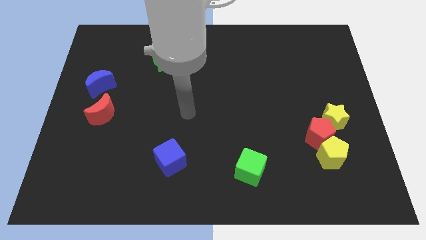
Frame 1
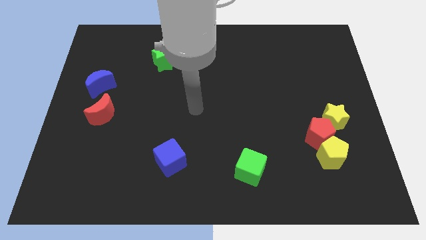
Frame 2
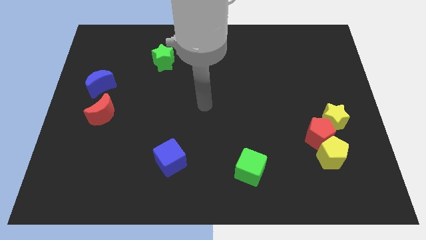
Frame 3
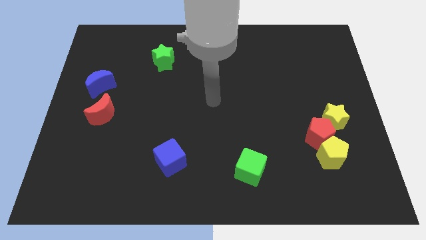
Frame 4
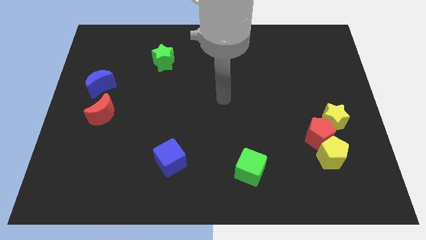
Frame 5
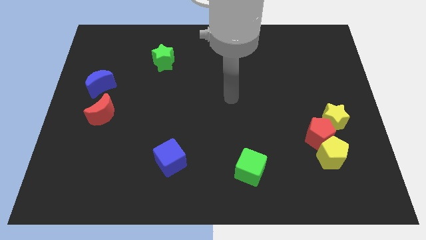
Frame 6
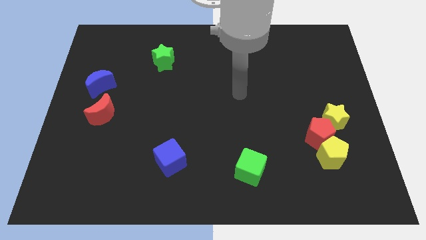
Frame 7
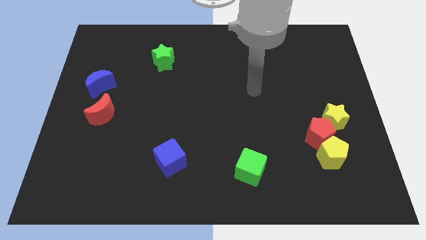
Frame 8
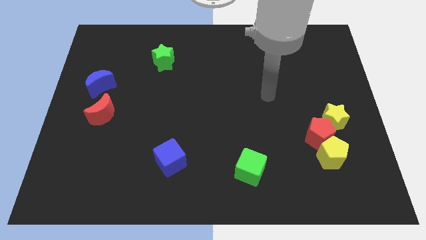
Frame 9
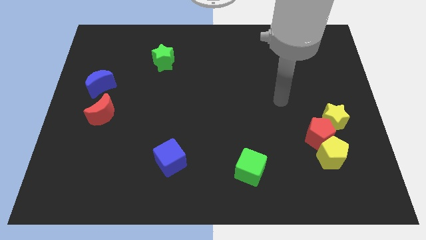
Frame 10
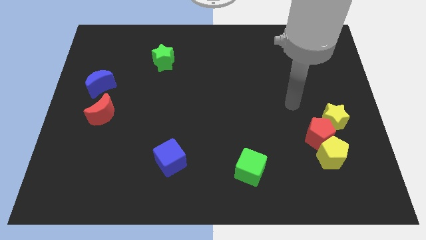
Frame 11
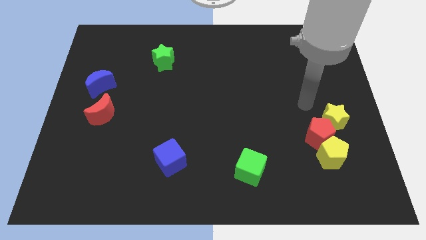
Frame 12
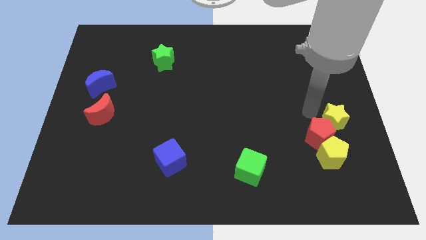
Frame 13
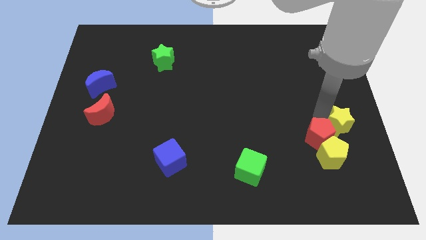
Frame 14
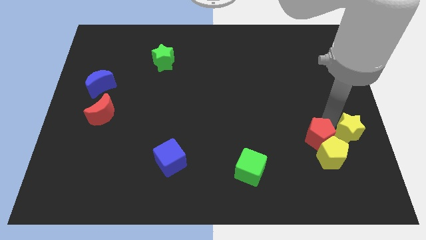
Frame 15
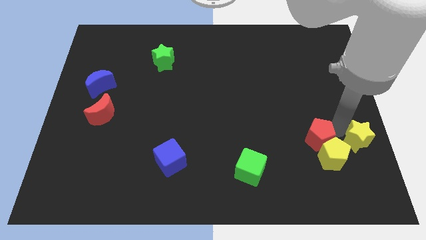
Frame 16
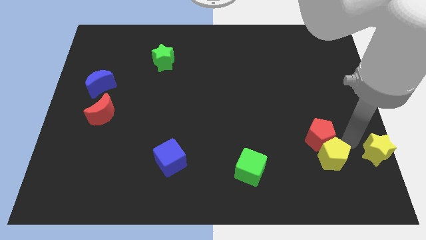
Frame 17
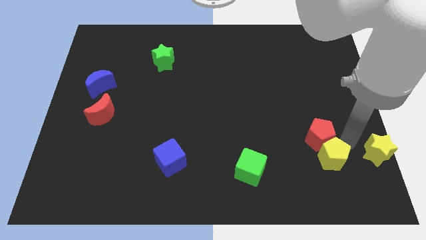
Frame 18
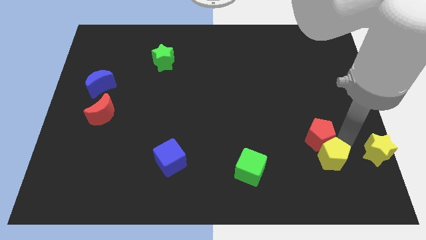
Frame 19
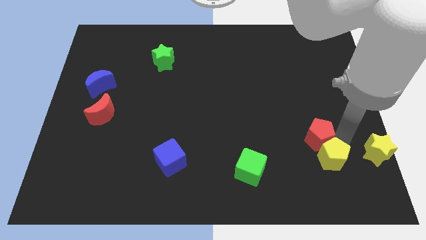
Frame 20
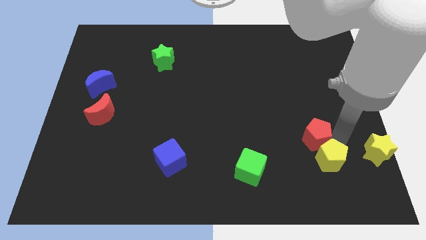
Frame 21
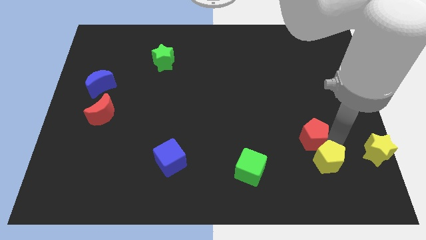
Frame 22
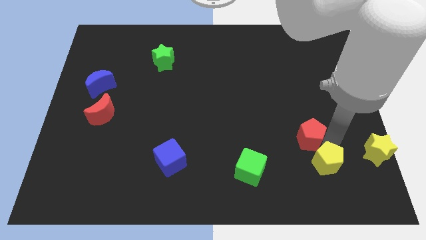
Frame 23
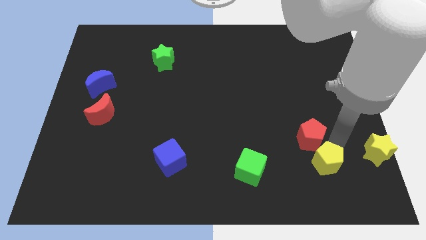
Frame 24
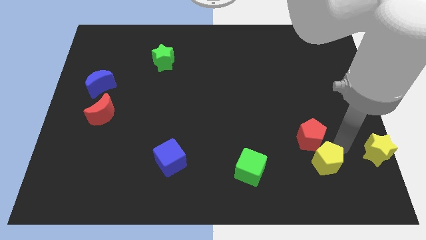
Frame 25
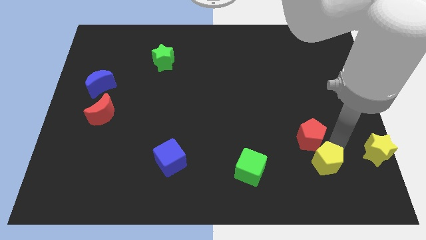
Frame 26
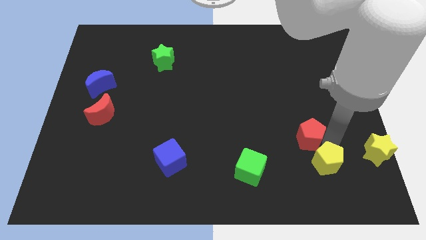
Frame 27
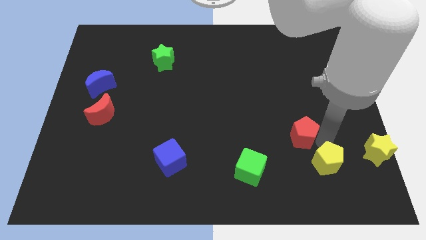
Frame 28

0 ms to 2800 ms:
move the red pentagon away from the yellow pentagon and yellow star

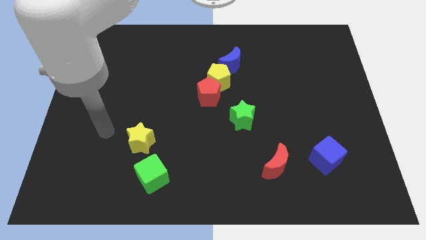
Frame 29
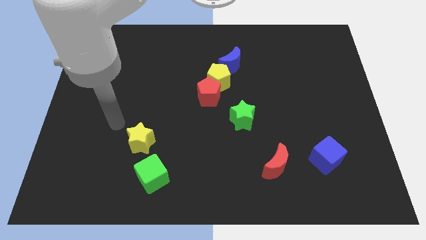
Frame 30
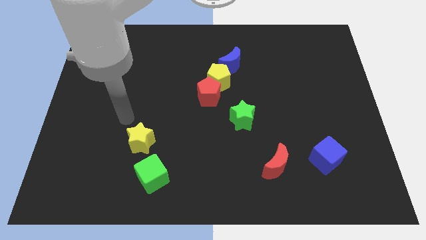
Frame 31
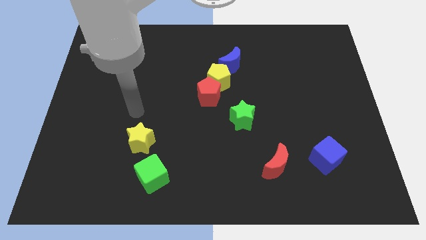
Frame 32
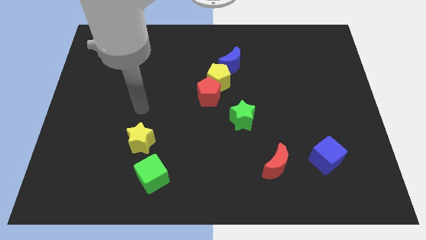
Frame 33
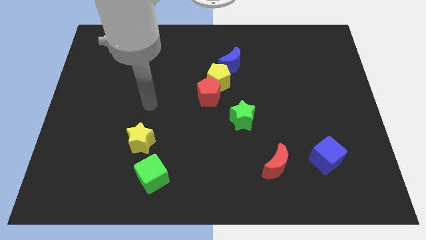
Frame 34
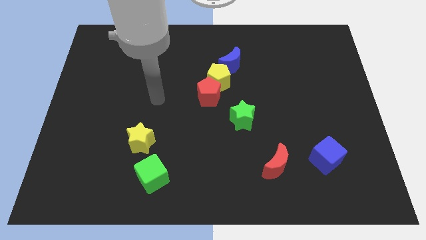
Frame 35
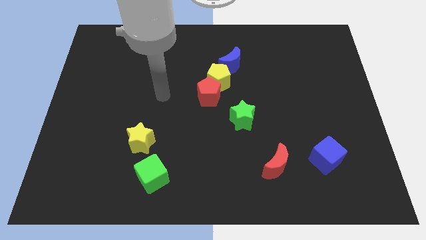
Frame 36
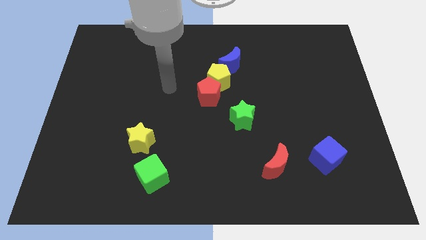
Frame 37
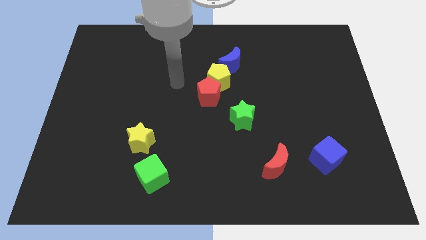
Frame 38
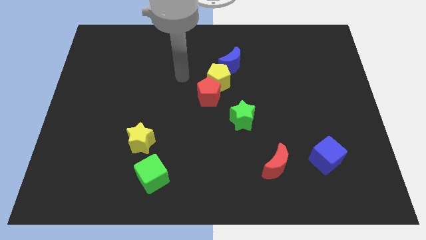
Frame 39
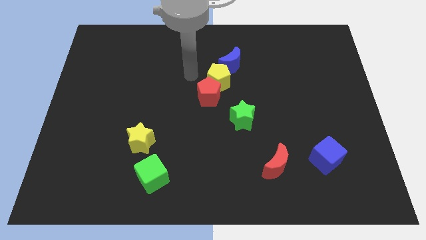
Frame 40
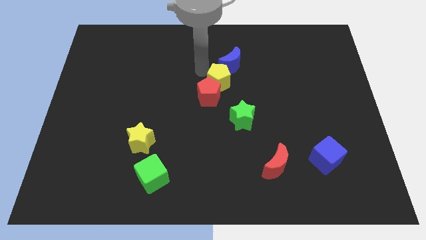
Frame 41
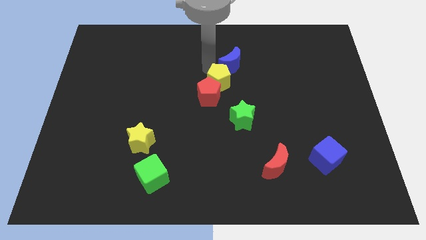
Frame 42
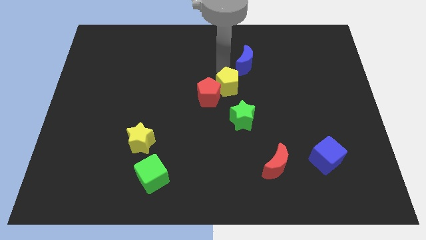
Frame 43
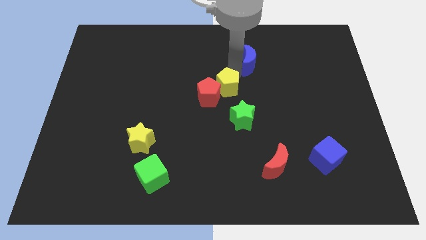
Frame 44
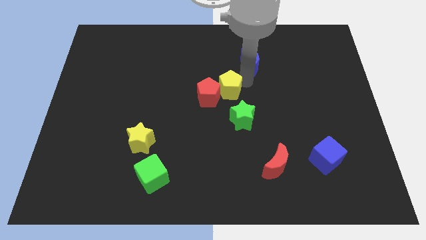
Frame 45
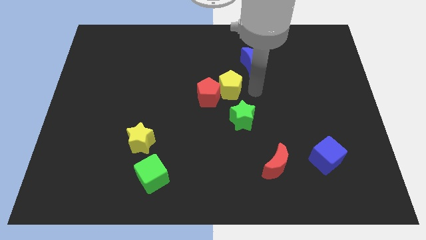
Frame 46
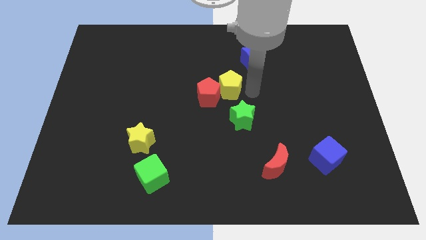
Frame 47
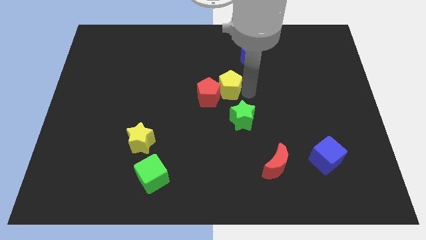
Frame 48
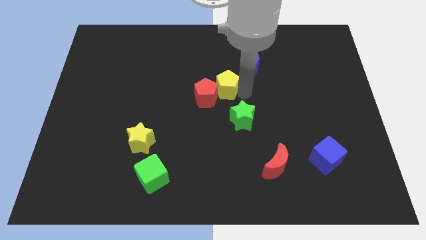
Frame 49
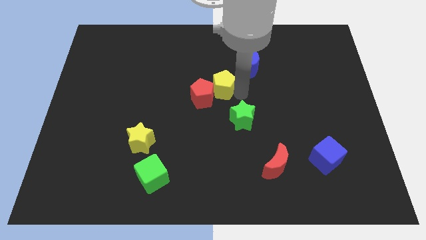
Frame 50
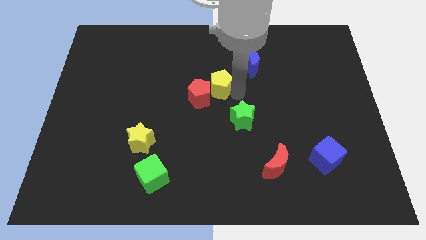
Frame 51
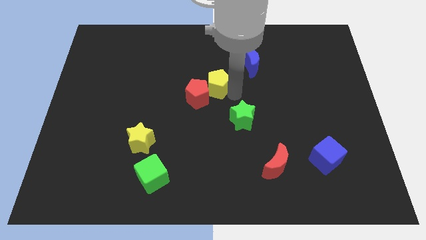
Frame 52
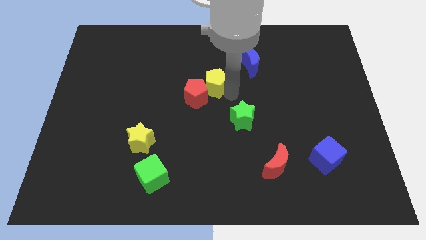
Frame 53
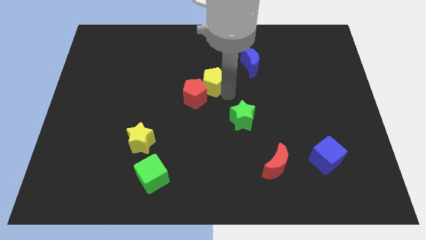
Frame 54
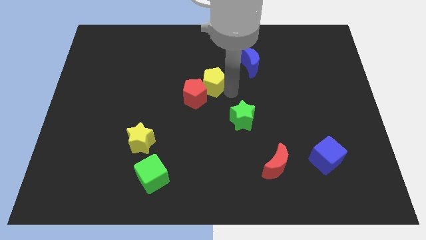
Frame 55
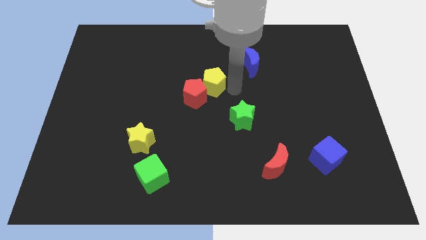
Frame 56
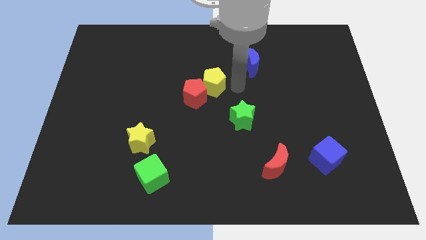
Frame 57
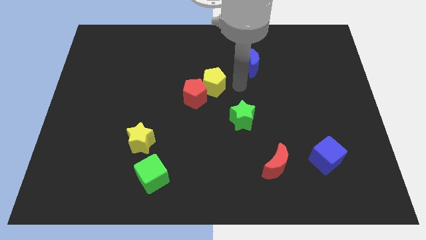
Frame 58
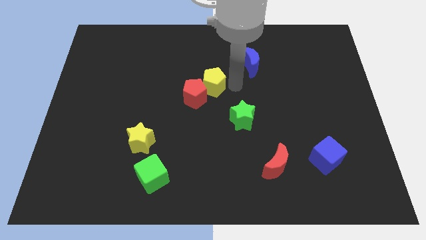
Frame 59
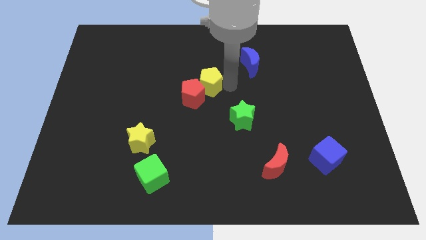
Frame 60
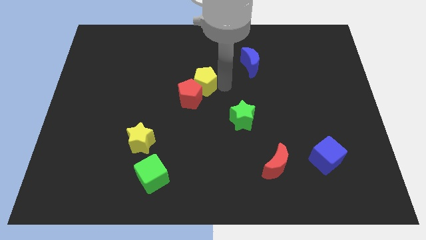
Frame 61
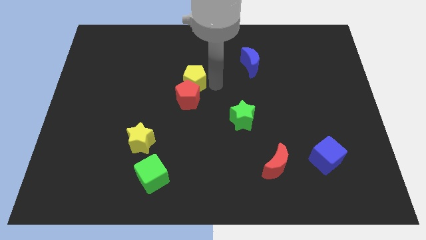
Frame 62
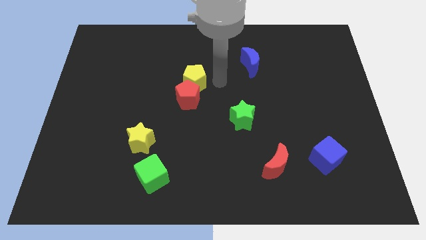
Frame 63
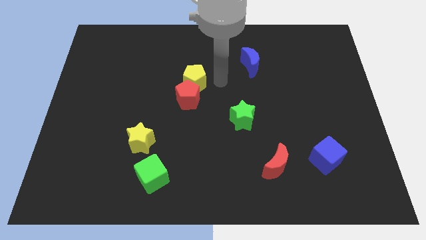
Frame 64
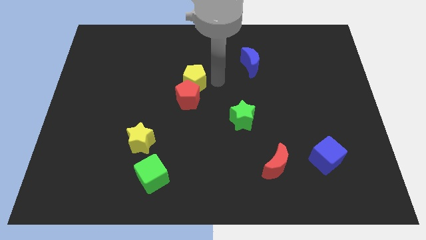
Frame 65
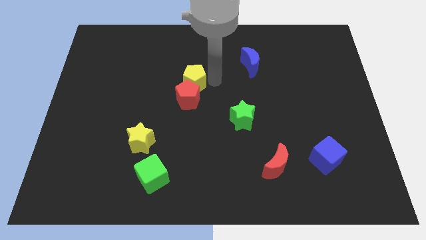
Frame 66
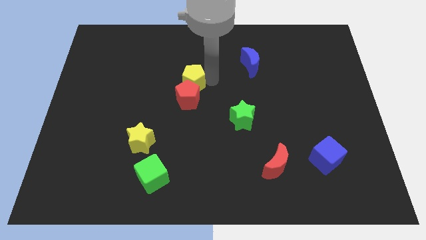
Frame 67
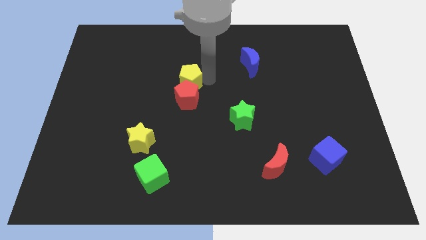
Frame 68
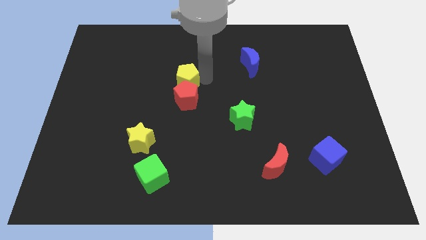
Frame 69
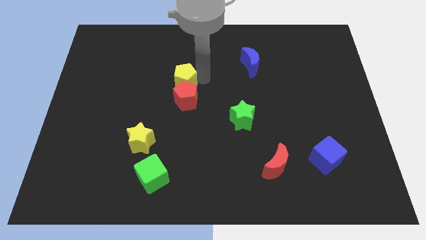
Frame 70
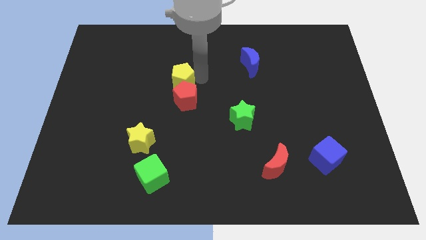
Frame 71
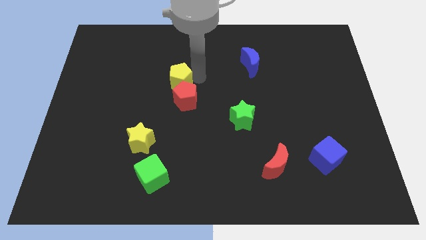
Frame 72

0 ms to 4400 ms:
move the yellow pentagon away from the red pentagon and blue moon

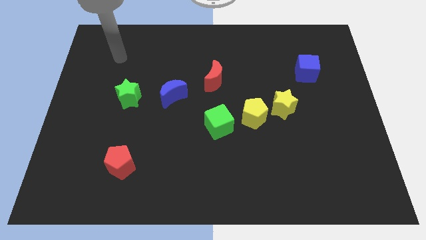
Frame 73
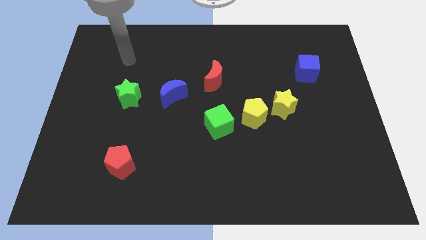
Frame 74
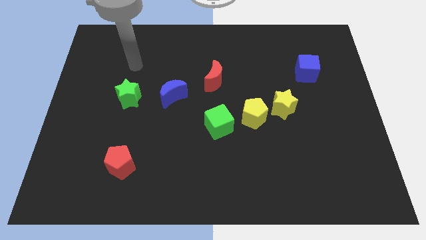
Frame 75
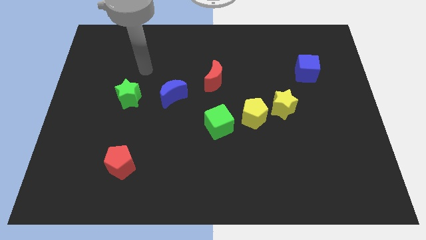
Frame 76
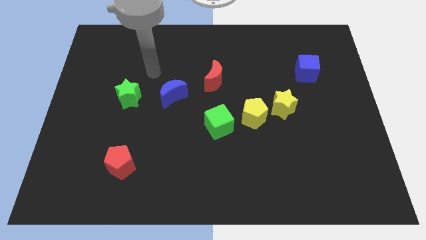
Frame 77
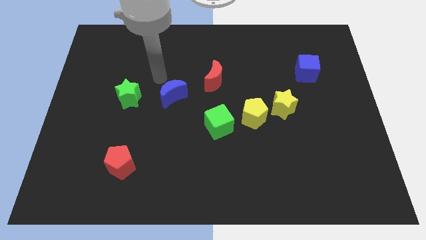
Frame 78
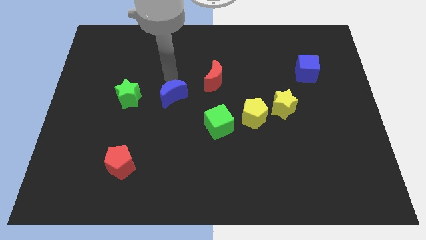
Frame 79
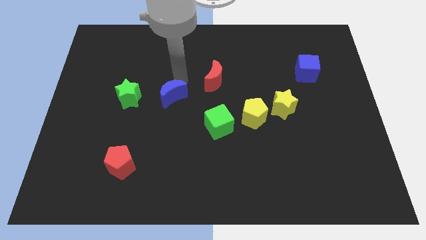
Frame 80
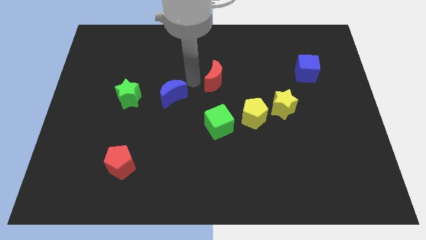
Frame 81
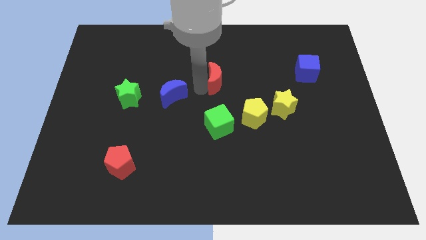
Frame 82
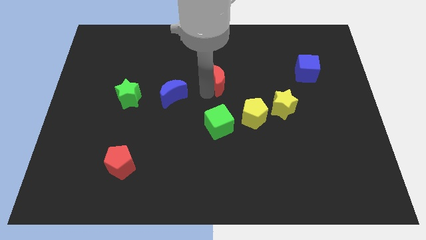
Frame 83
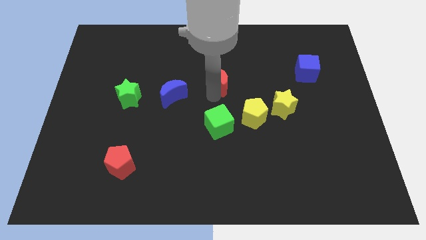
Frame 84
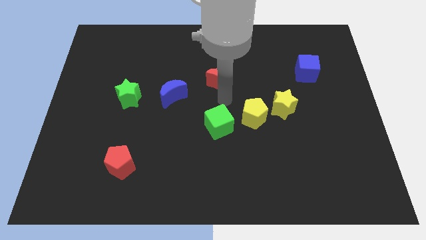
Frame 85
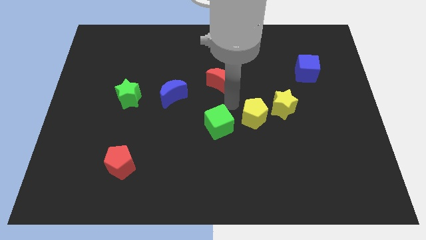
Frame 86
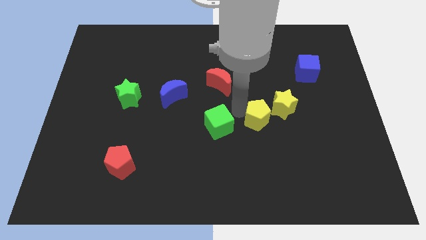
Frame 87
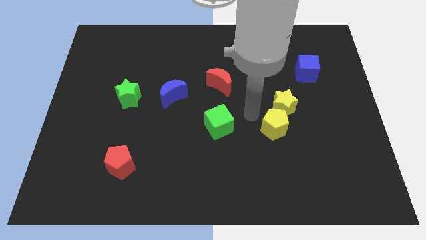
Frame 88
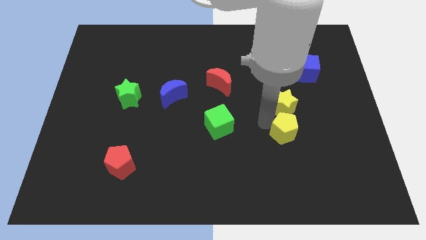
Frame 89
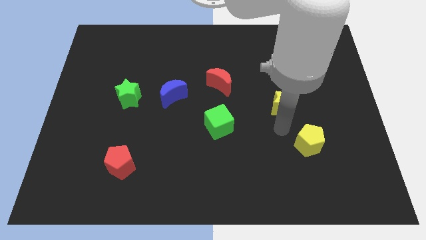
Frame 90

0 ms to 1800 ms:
separate the yellow star from the yellow pentagon

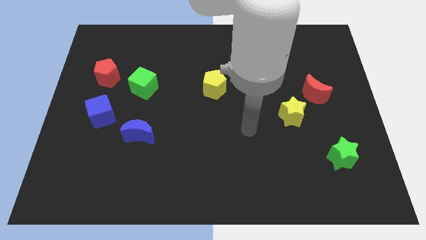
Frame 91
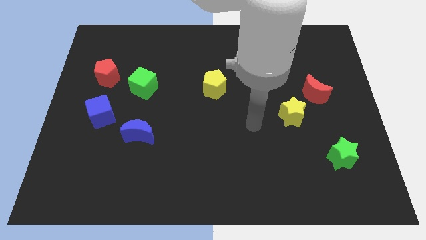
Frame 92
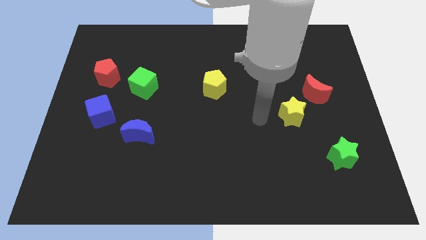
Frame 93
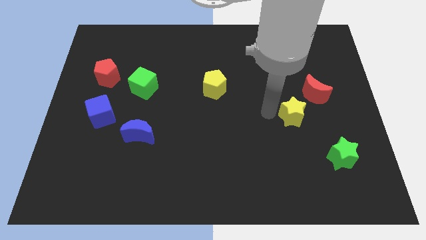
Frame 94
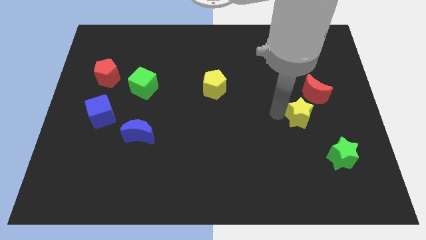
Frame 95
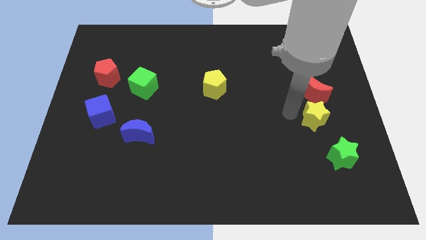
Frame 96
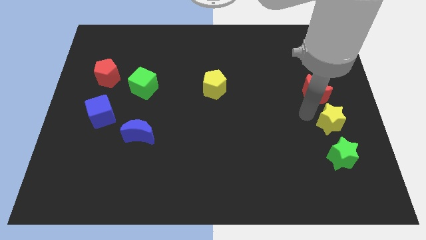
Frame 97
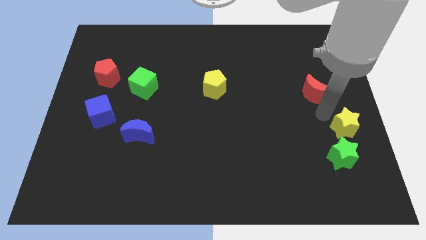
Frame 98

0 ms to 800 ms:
move the red moon away from the yellow star
